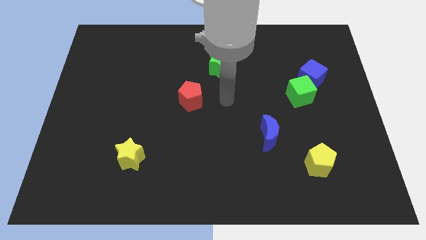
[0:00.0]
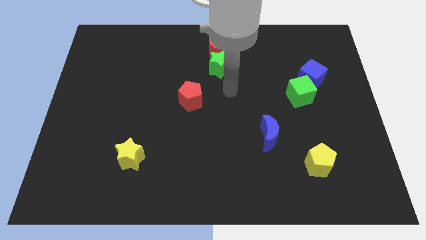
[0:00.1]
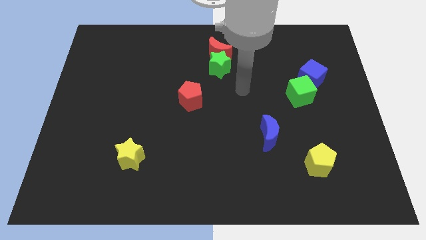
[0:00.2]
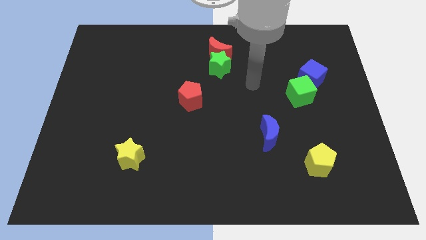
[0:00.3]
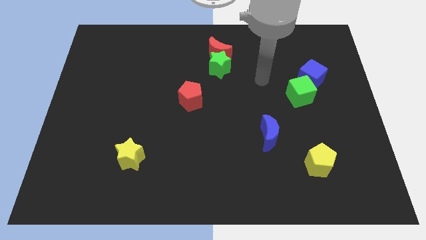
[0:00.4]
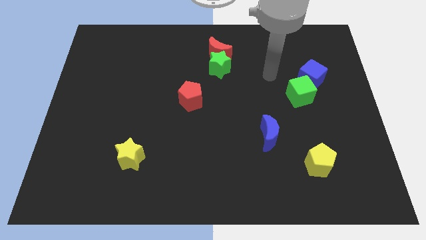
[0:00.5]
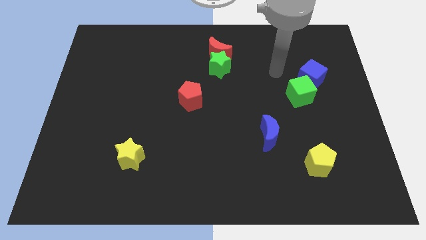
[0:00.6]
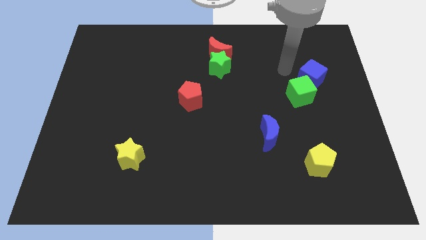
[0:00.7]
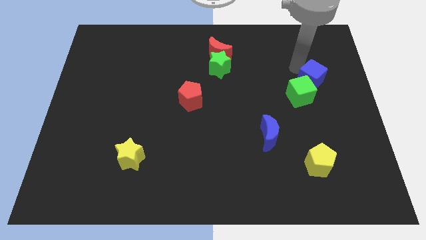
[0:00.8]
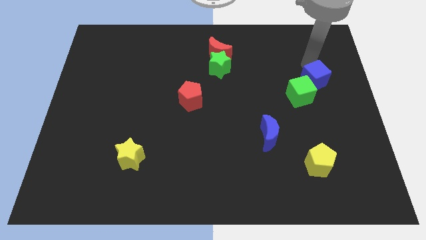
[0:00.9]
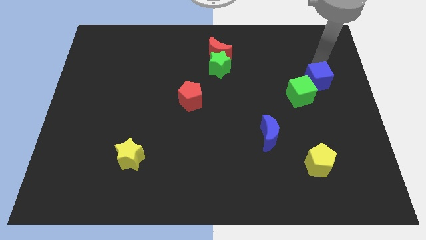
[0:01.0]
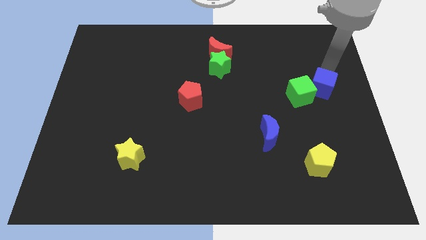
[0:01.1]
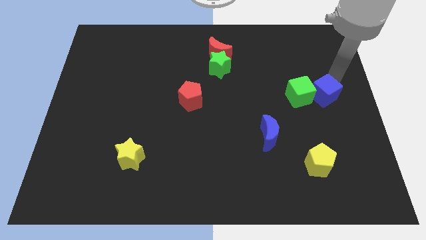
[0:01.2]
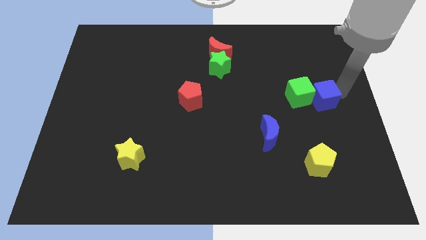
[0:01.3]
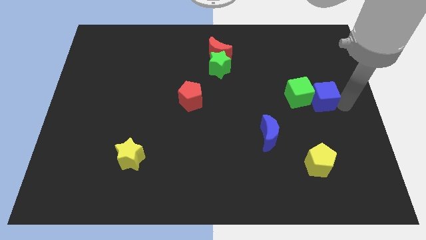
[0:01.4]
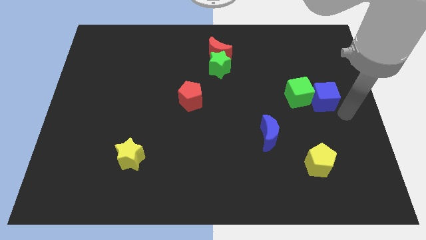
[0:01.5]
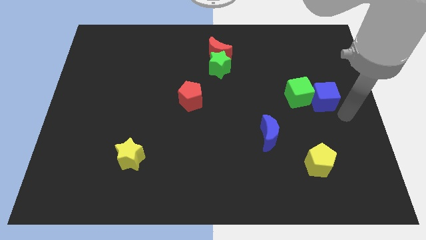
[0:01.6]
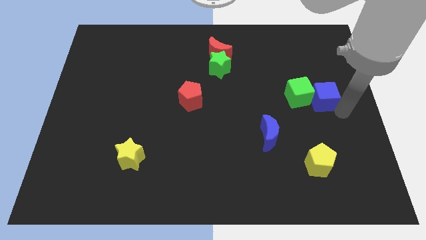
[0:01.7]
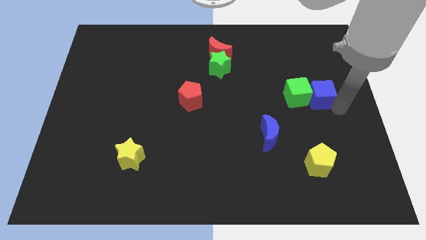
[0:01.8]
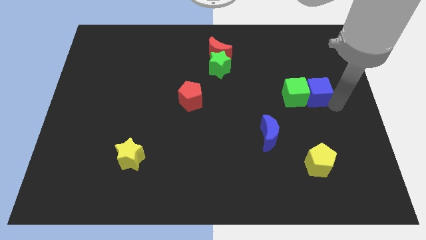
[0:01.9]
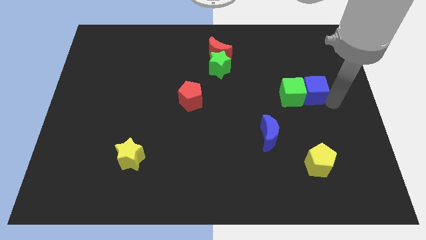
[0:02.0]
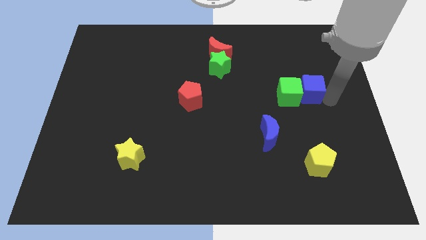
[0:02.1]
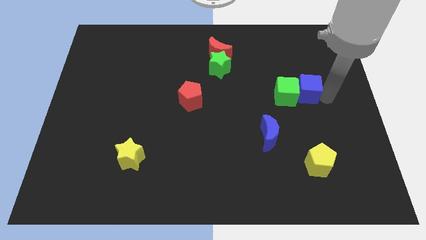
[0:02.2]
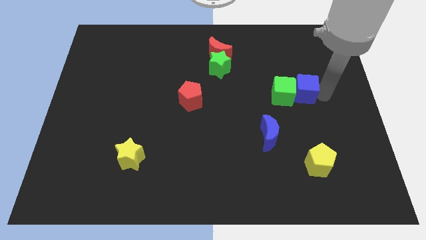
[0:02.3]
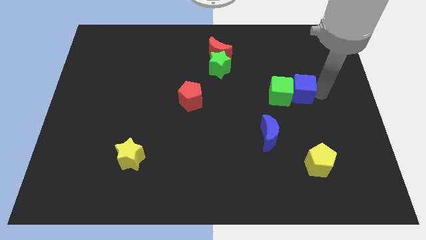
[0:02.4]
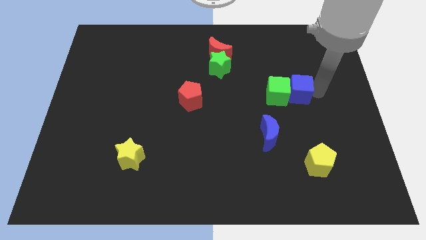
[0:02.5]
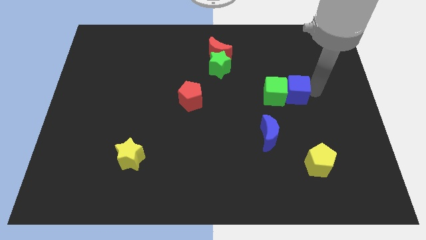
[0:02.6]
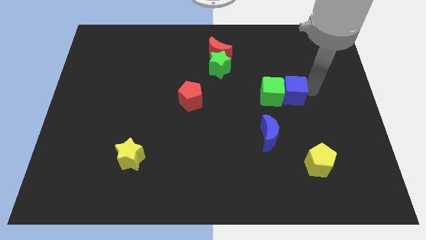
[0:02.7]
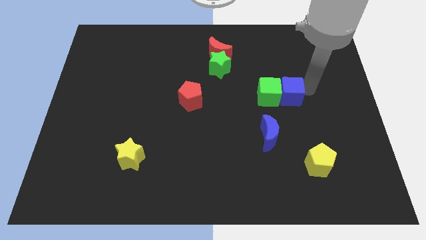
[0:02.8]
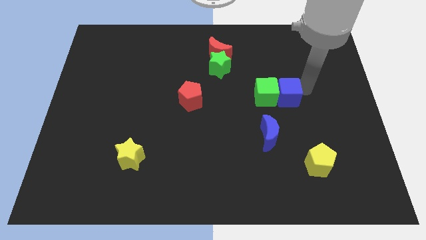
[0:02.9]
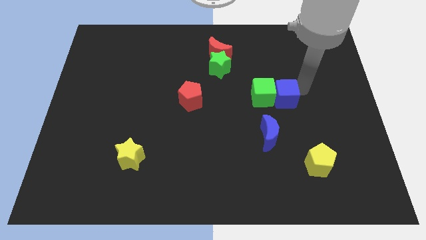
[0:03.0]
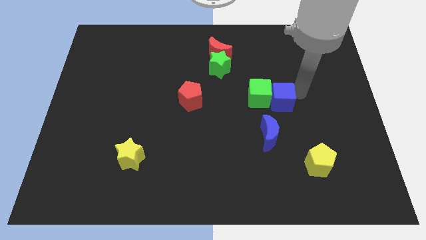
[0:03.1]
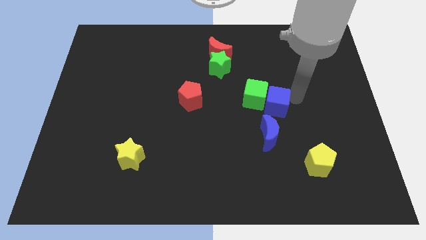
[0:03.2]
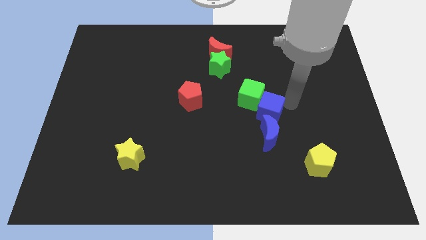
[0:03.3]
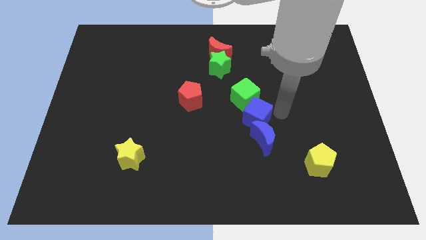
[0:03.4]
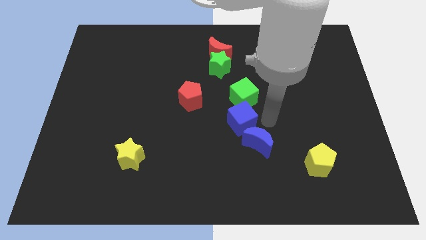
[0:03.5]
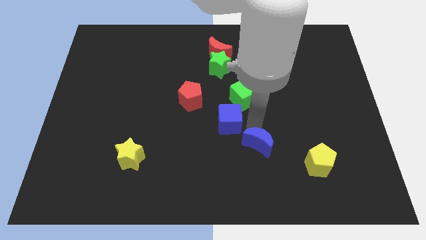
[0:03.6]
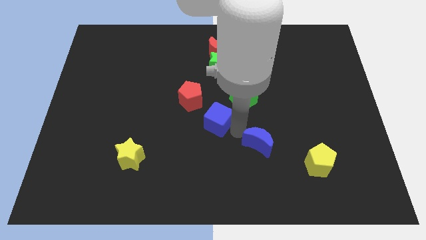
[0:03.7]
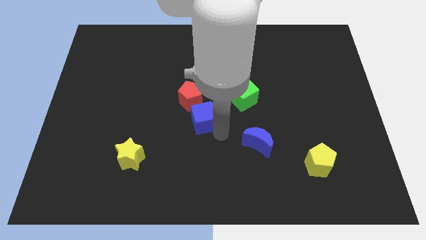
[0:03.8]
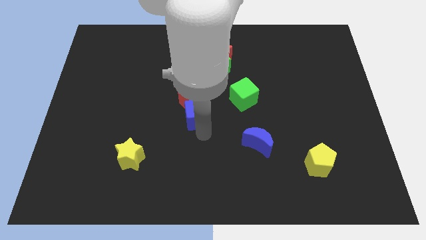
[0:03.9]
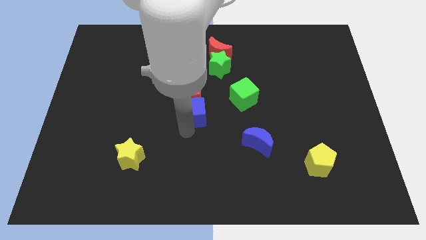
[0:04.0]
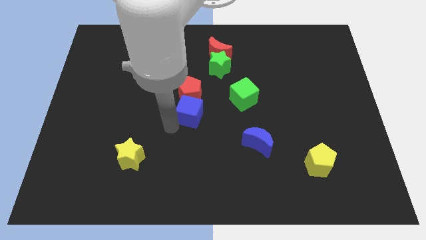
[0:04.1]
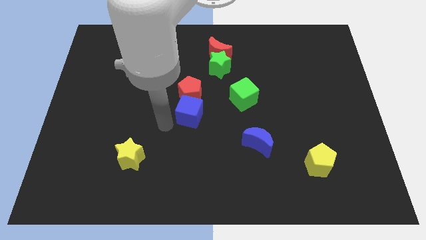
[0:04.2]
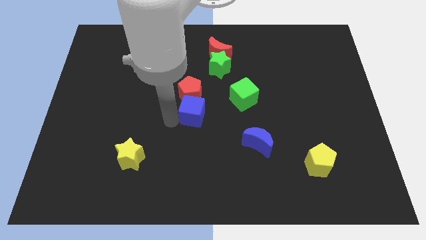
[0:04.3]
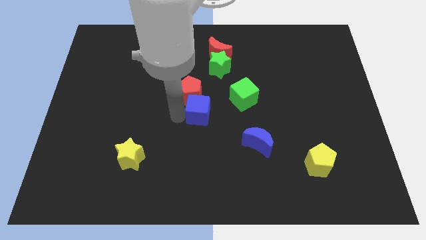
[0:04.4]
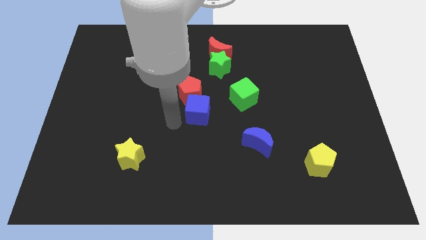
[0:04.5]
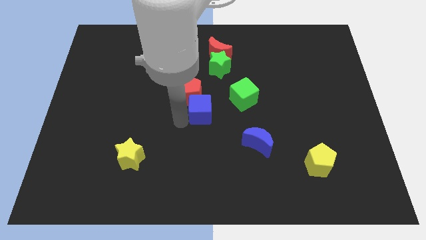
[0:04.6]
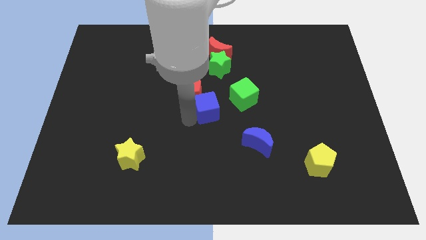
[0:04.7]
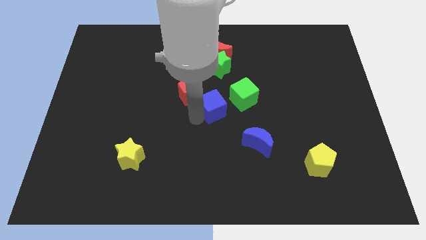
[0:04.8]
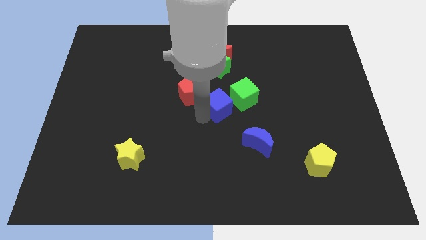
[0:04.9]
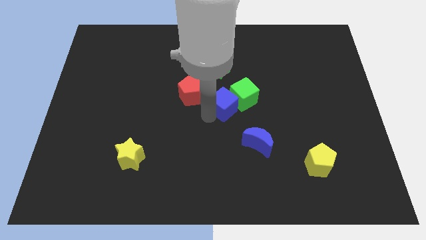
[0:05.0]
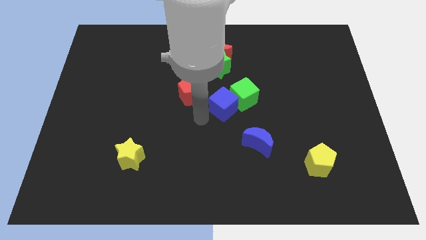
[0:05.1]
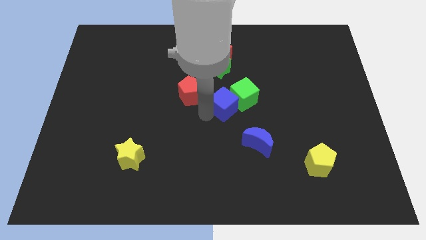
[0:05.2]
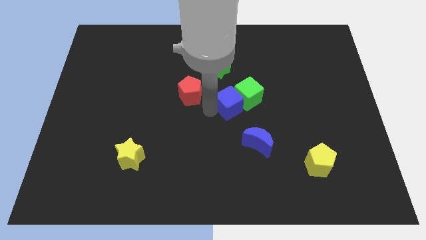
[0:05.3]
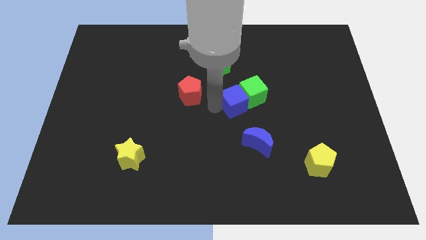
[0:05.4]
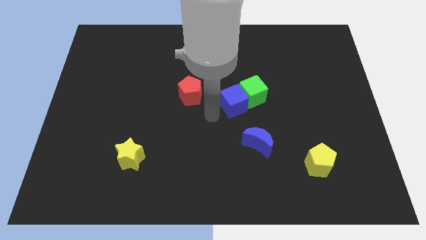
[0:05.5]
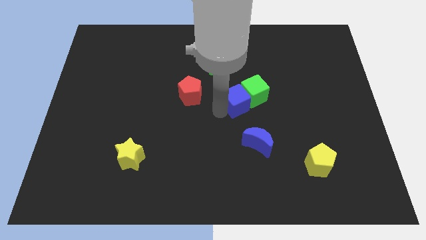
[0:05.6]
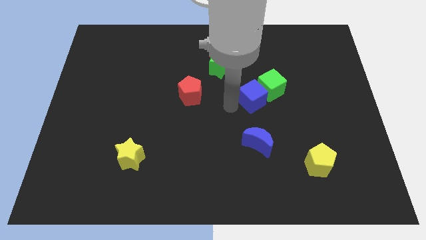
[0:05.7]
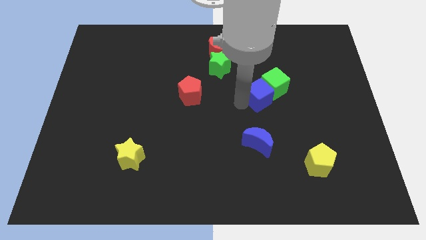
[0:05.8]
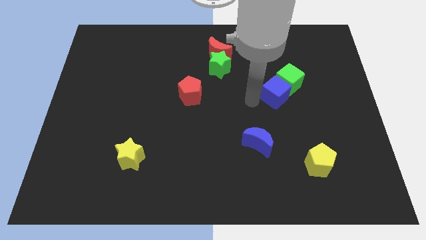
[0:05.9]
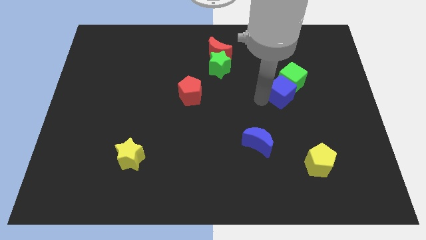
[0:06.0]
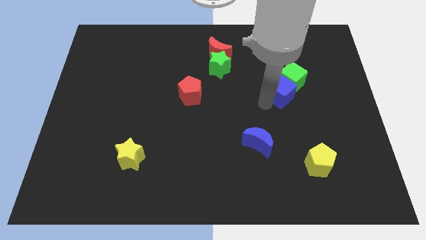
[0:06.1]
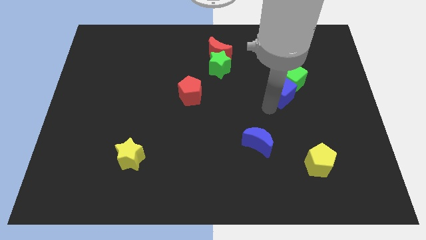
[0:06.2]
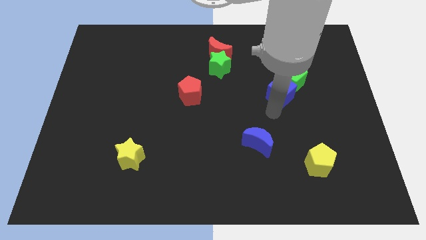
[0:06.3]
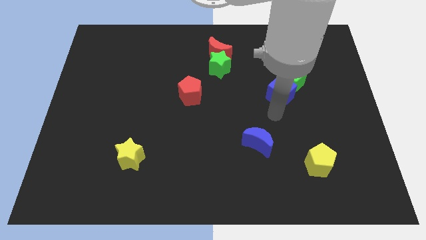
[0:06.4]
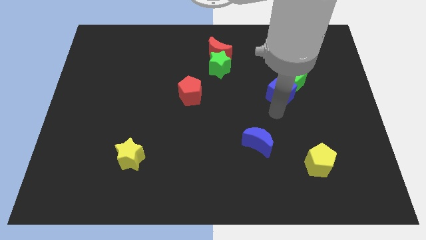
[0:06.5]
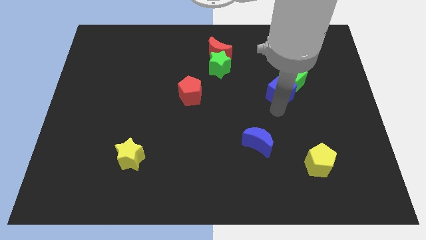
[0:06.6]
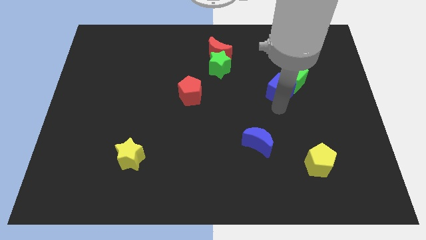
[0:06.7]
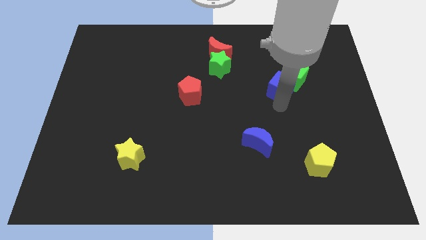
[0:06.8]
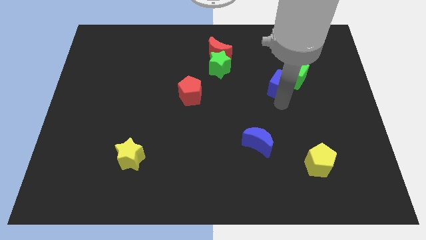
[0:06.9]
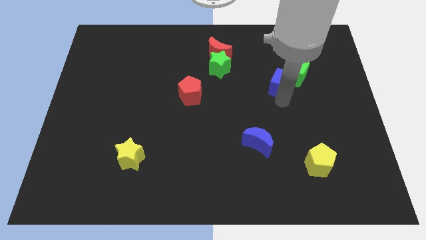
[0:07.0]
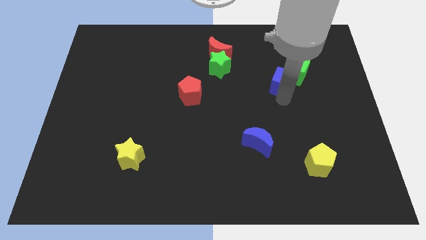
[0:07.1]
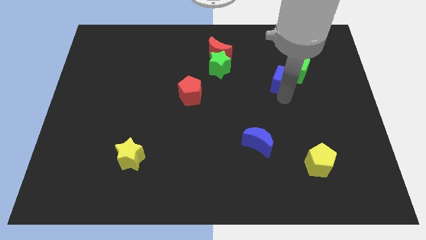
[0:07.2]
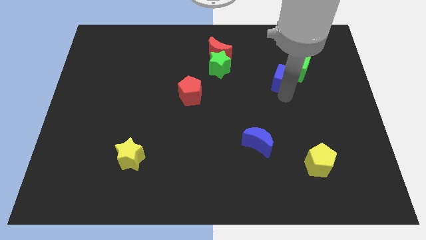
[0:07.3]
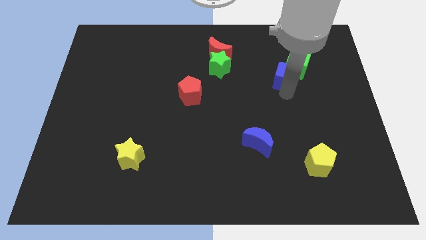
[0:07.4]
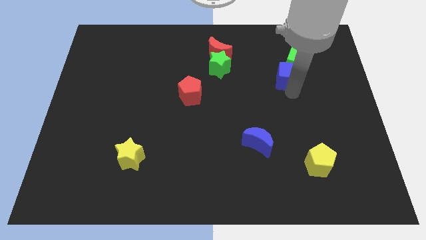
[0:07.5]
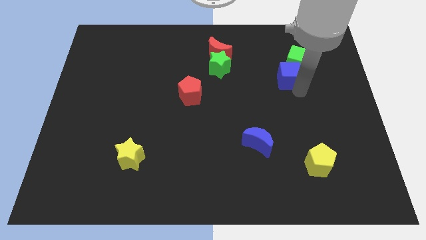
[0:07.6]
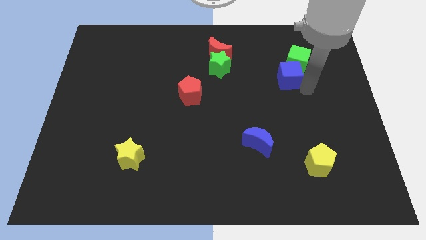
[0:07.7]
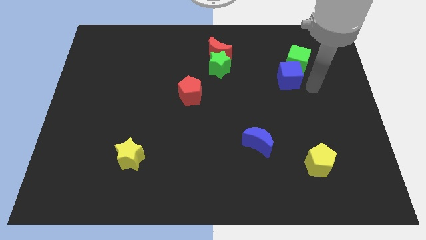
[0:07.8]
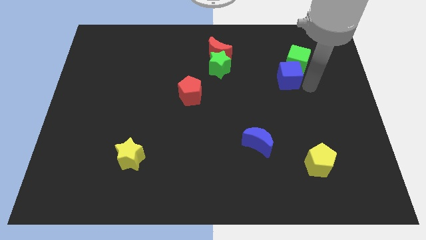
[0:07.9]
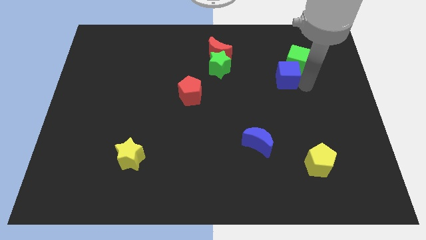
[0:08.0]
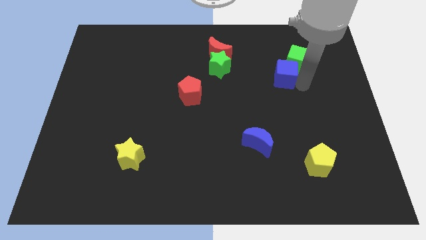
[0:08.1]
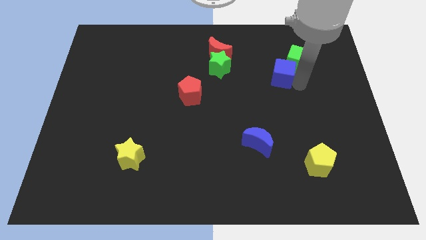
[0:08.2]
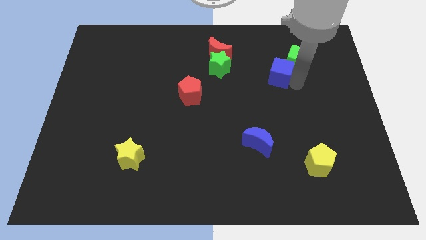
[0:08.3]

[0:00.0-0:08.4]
slide the blue cube to the right side of the green star
